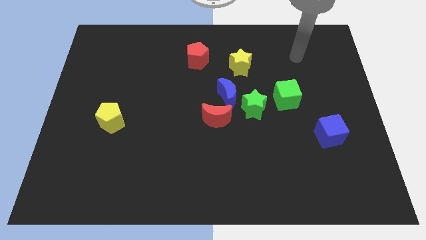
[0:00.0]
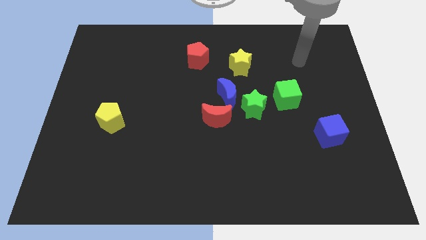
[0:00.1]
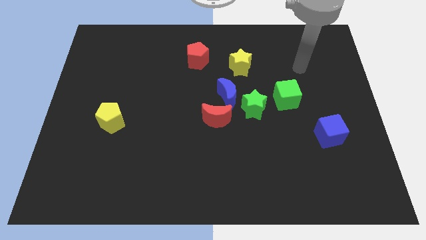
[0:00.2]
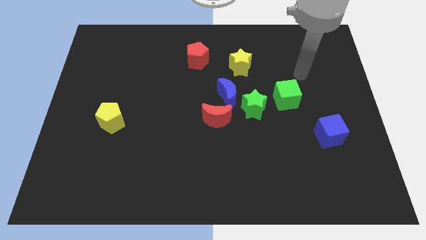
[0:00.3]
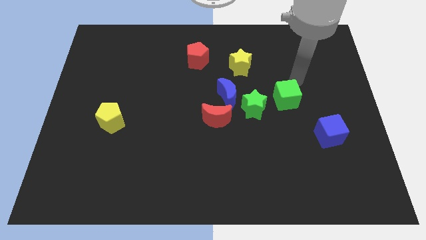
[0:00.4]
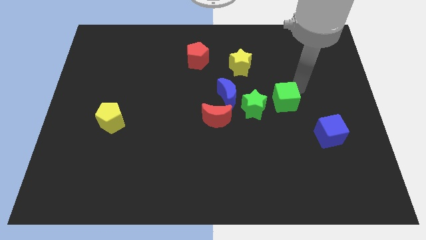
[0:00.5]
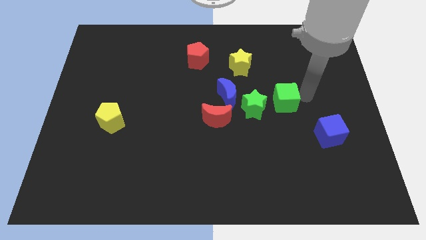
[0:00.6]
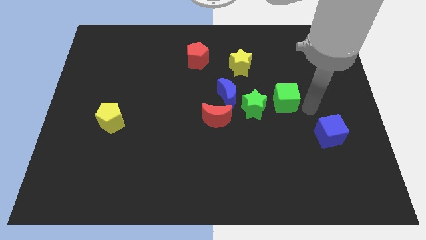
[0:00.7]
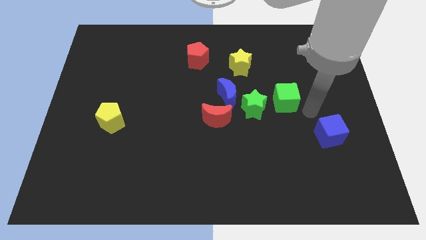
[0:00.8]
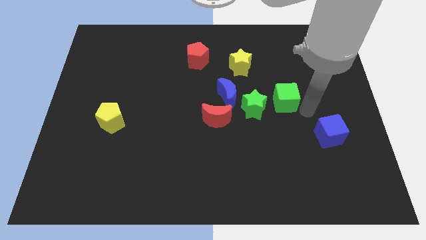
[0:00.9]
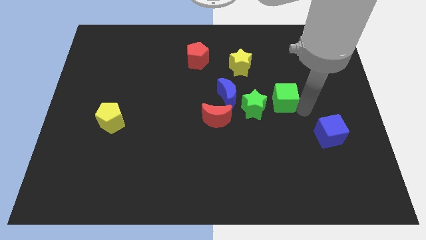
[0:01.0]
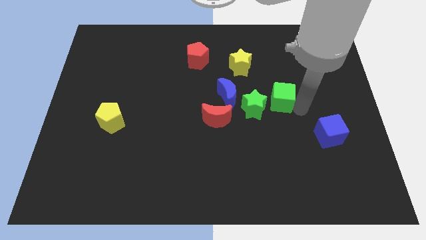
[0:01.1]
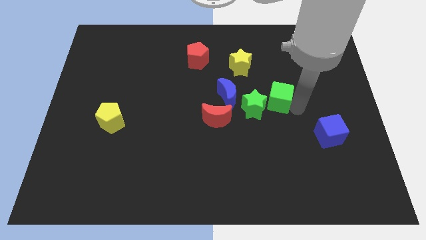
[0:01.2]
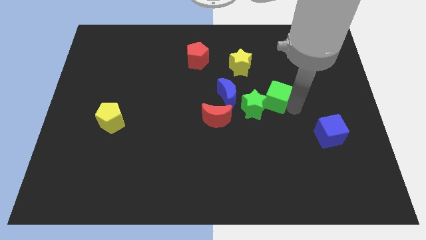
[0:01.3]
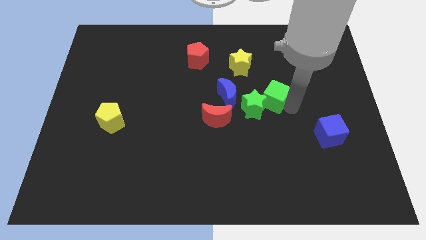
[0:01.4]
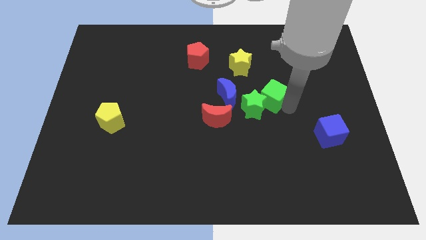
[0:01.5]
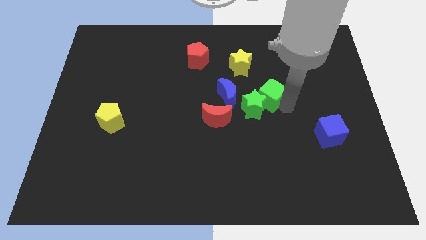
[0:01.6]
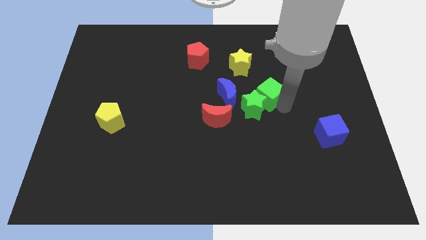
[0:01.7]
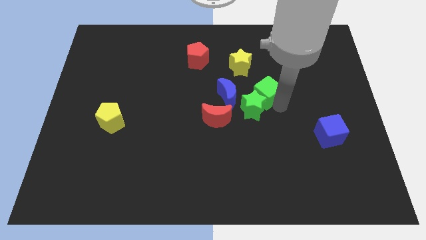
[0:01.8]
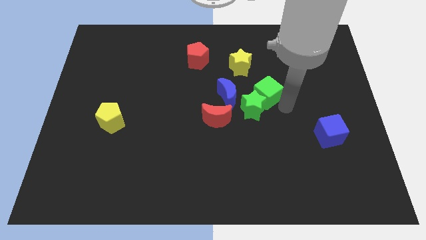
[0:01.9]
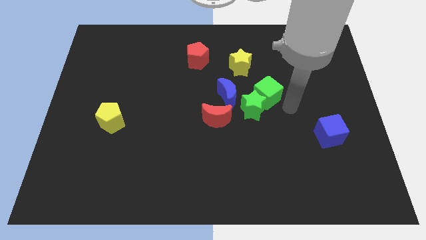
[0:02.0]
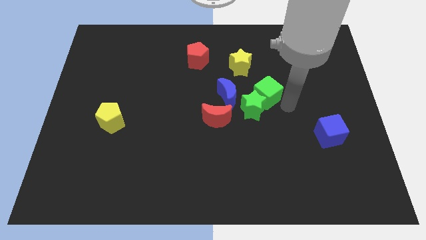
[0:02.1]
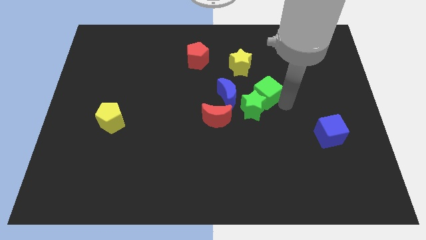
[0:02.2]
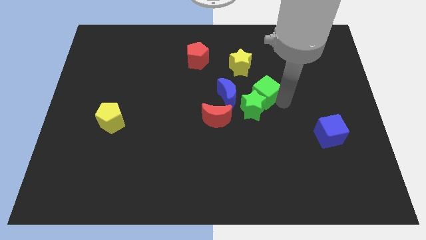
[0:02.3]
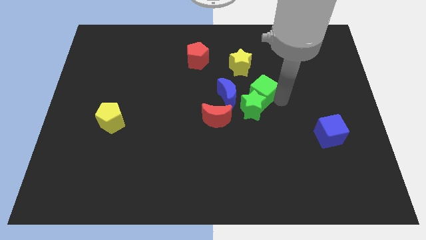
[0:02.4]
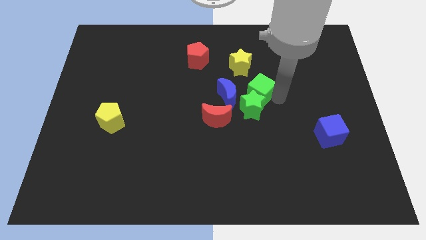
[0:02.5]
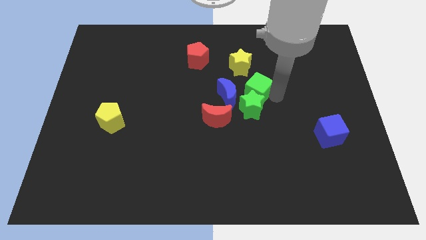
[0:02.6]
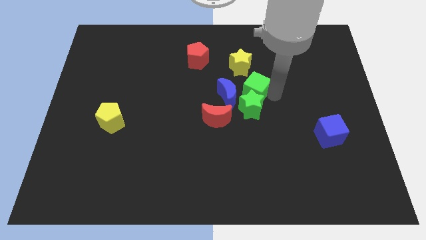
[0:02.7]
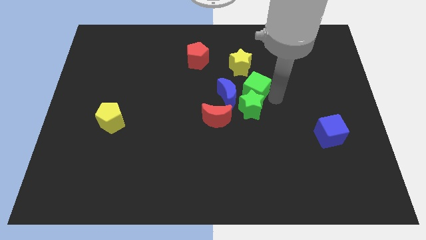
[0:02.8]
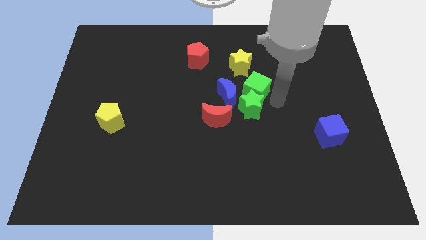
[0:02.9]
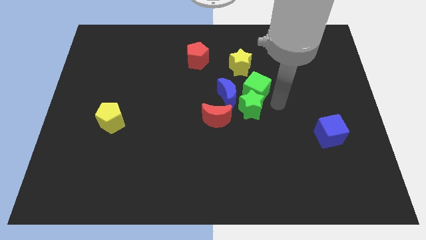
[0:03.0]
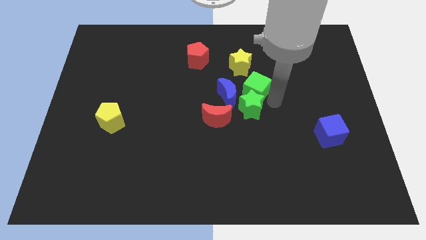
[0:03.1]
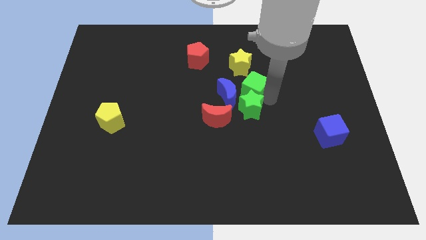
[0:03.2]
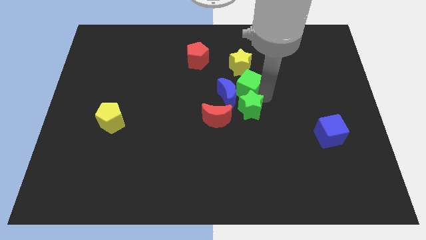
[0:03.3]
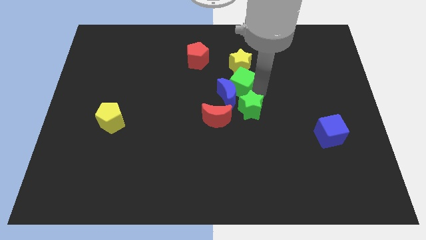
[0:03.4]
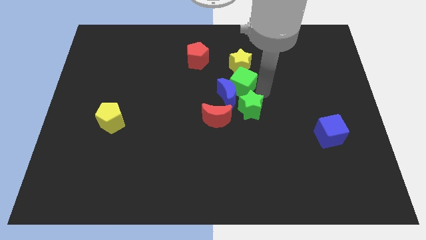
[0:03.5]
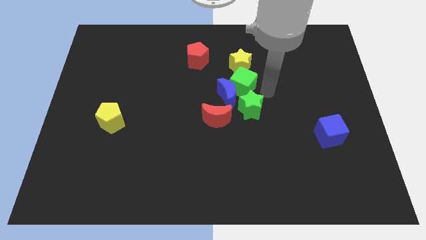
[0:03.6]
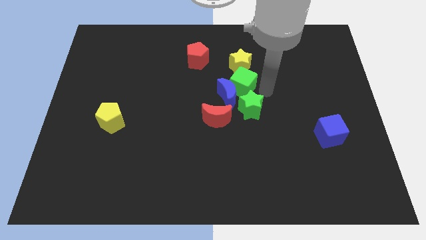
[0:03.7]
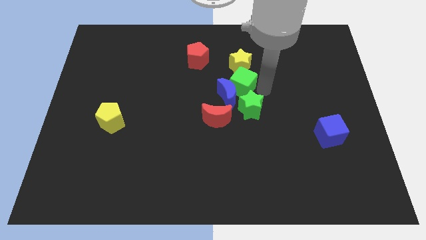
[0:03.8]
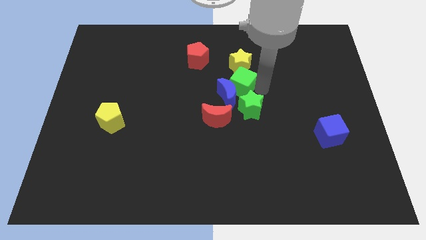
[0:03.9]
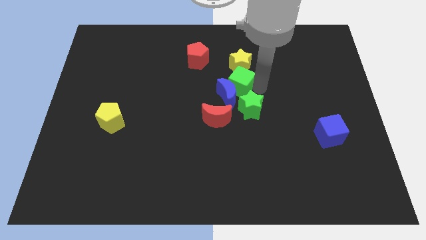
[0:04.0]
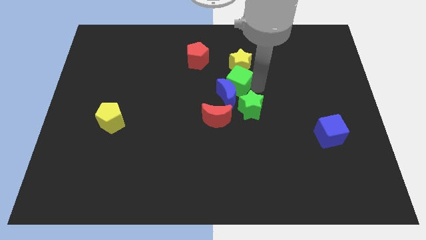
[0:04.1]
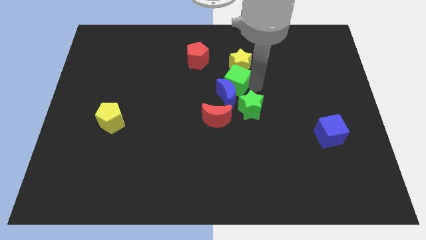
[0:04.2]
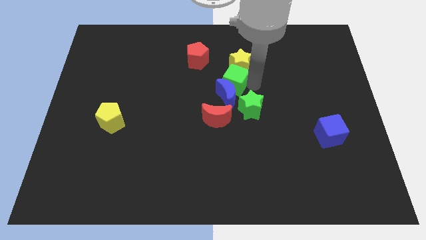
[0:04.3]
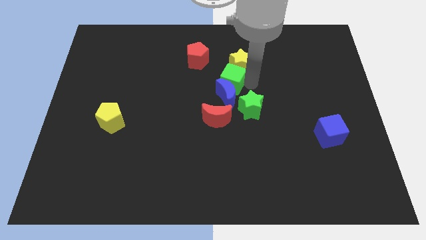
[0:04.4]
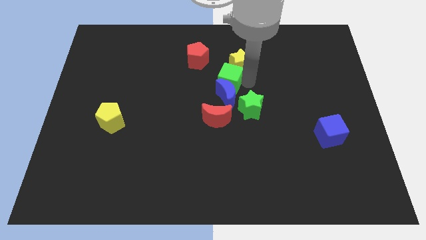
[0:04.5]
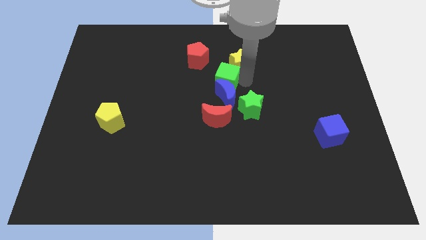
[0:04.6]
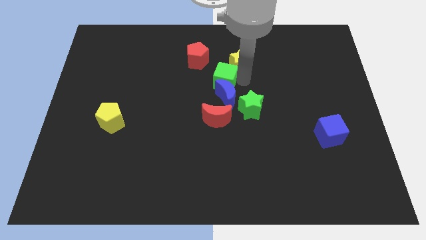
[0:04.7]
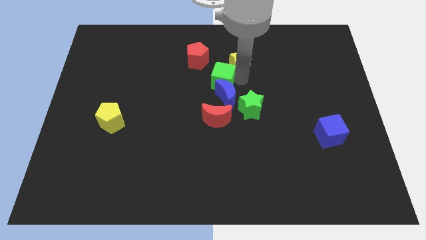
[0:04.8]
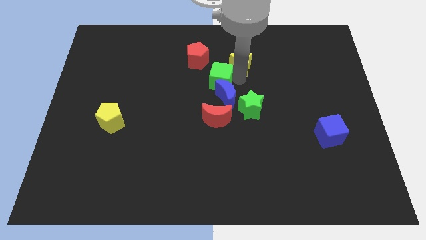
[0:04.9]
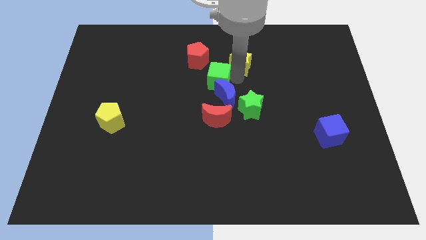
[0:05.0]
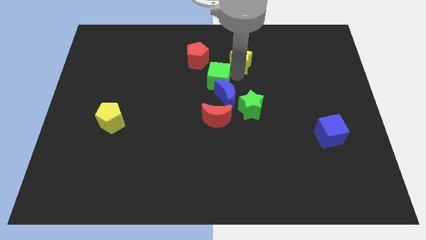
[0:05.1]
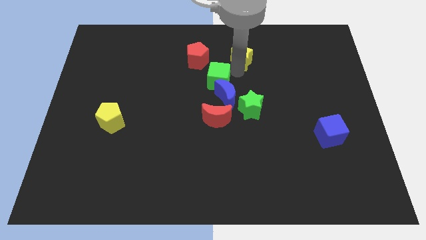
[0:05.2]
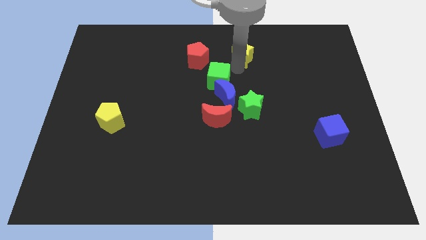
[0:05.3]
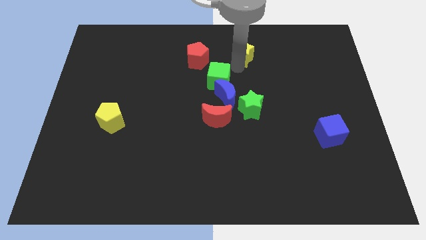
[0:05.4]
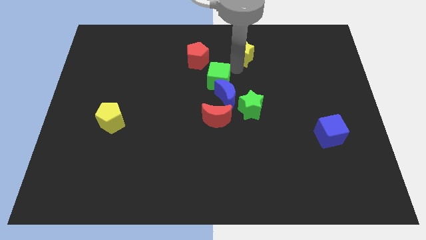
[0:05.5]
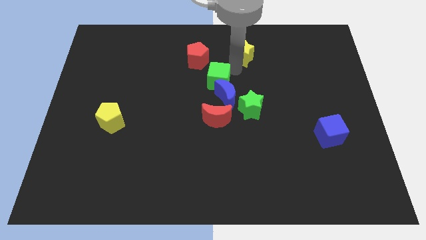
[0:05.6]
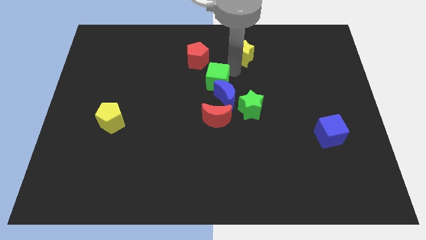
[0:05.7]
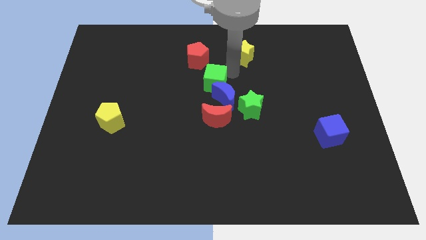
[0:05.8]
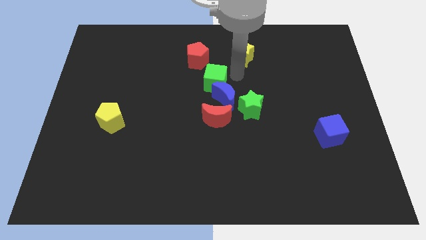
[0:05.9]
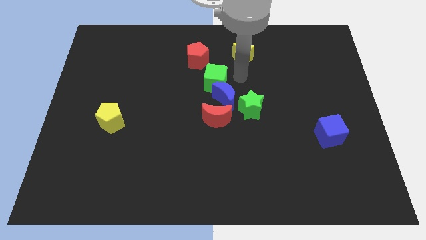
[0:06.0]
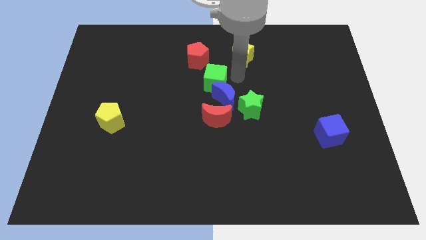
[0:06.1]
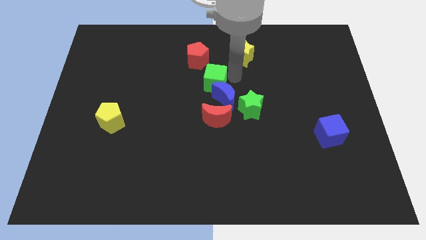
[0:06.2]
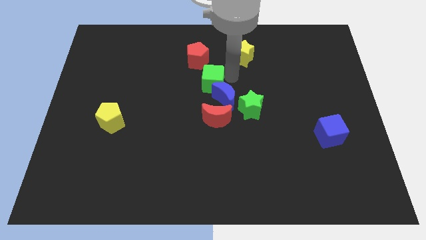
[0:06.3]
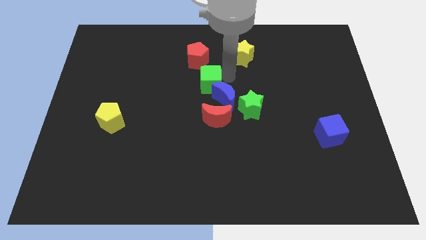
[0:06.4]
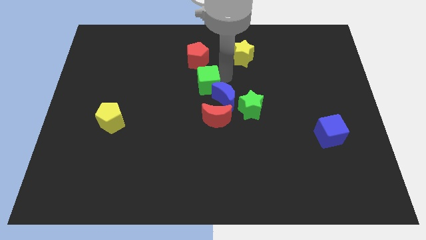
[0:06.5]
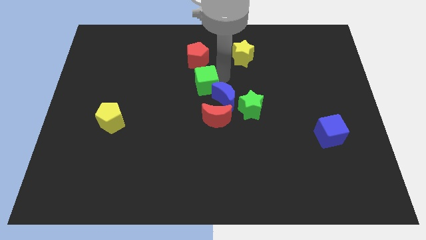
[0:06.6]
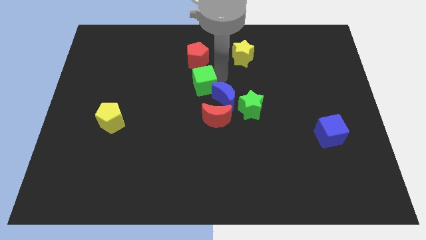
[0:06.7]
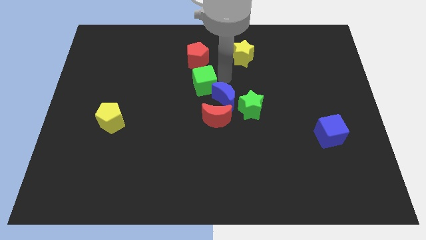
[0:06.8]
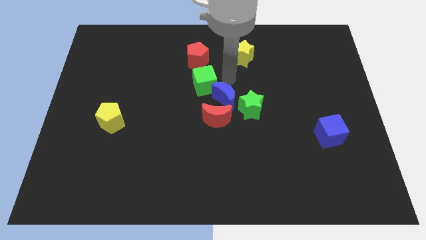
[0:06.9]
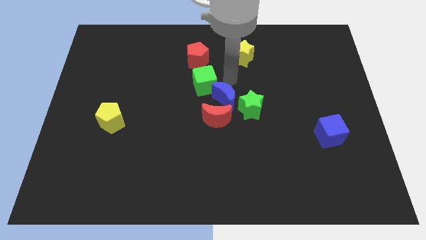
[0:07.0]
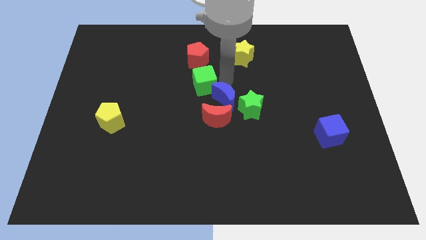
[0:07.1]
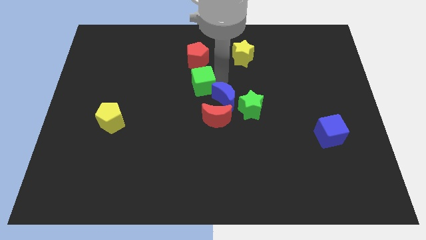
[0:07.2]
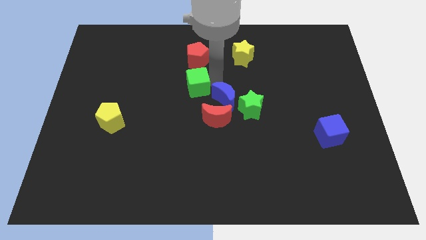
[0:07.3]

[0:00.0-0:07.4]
slide the green cube left

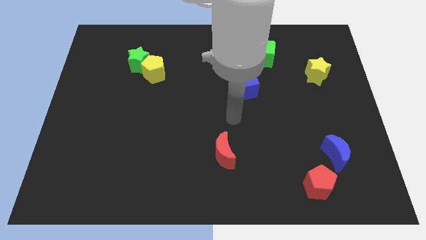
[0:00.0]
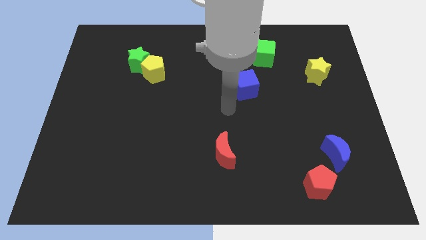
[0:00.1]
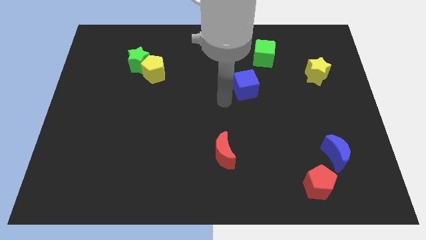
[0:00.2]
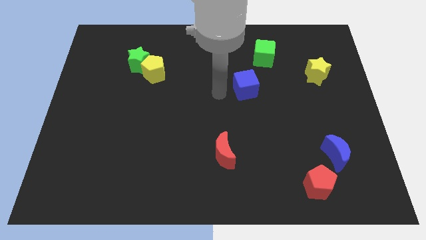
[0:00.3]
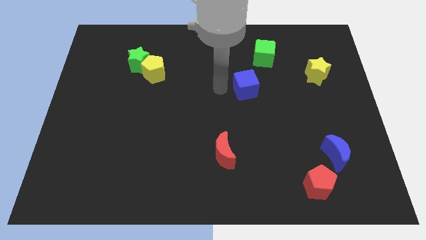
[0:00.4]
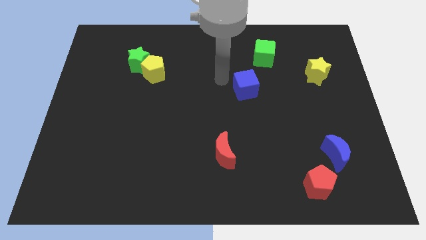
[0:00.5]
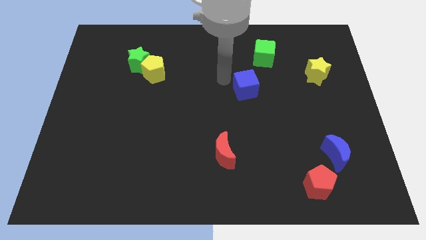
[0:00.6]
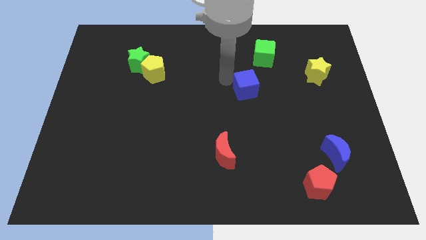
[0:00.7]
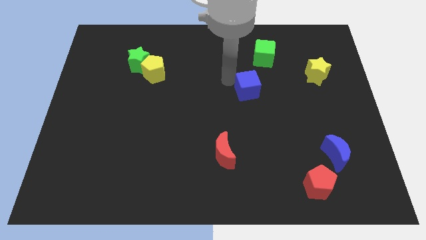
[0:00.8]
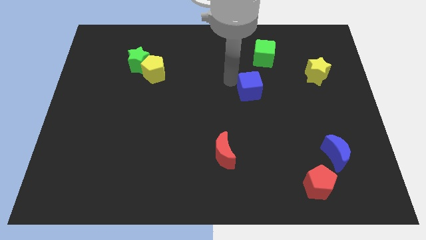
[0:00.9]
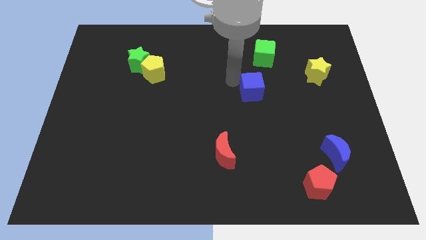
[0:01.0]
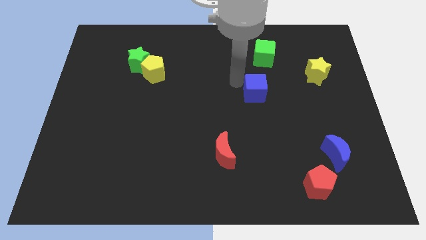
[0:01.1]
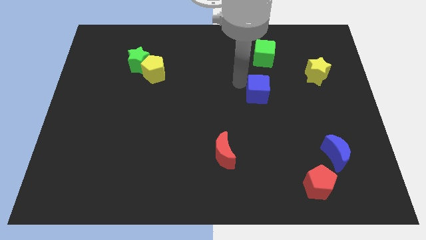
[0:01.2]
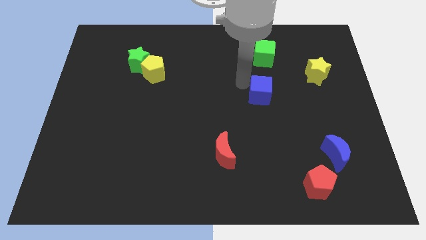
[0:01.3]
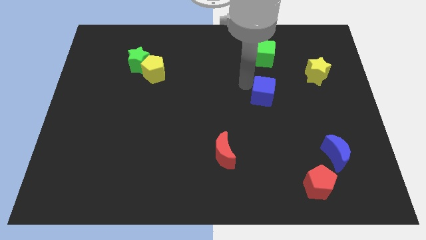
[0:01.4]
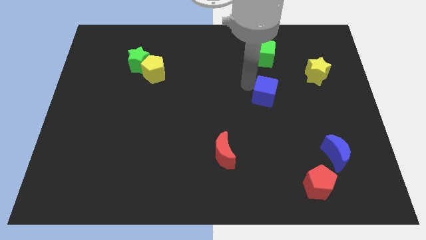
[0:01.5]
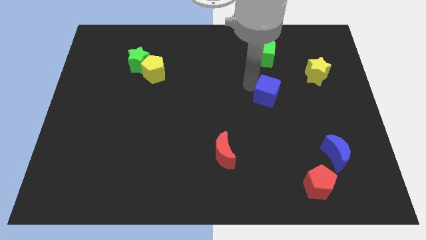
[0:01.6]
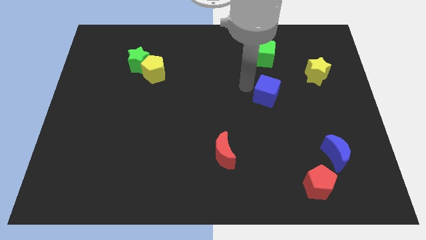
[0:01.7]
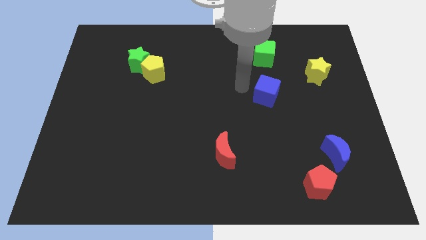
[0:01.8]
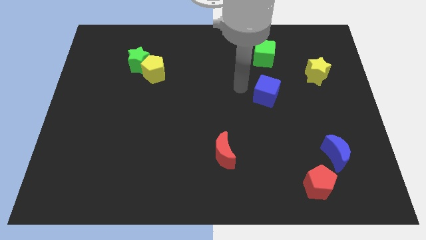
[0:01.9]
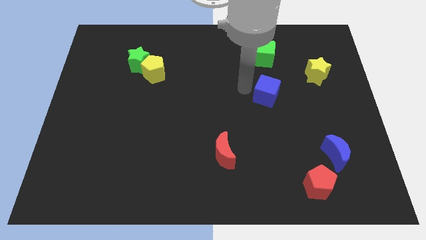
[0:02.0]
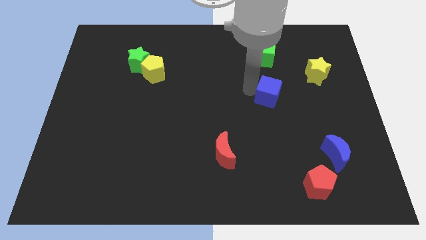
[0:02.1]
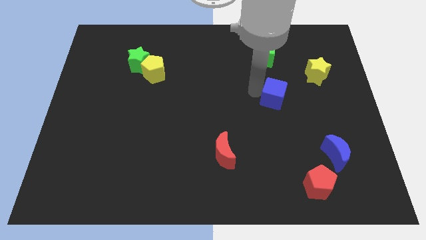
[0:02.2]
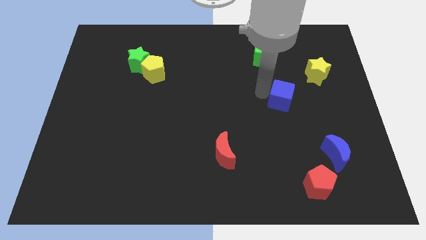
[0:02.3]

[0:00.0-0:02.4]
slightly slide the blue cube down and to the right diagonally
